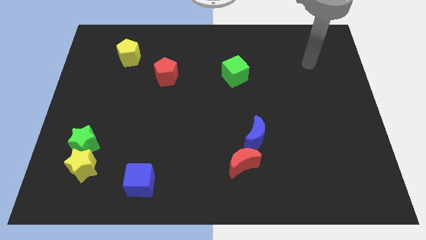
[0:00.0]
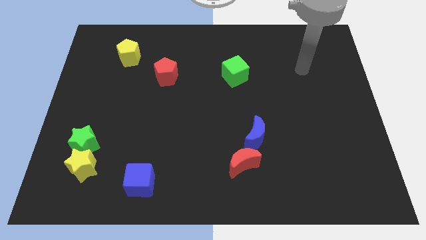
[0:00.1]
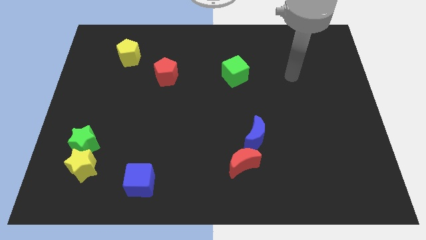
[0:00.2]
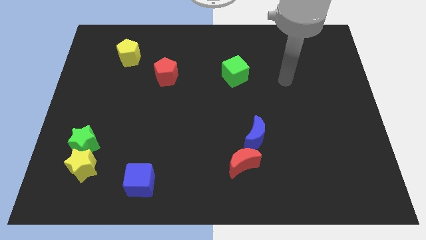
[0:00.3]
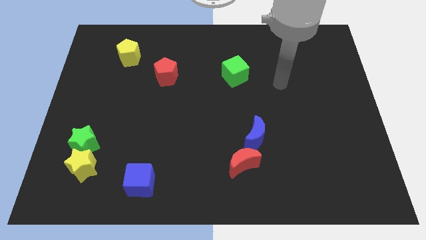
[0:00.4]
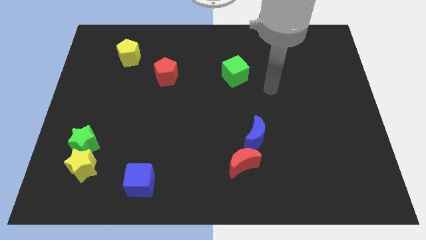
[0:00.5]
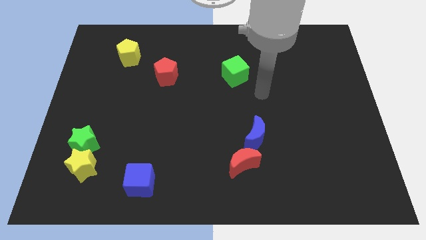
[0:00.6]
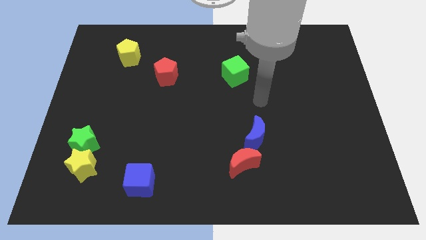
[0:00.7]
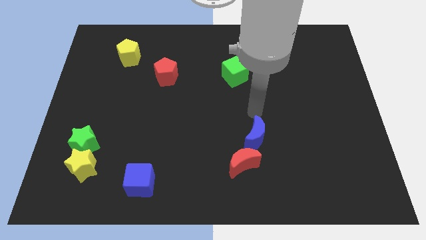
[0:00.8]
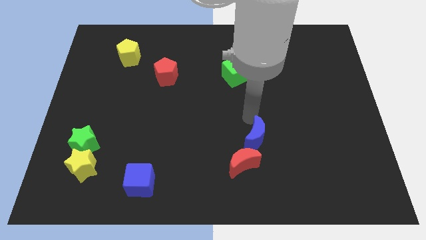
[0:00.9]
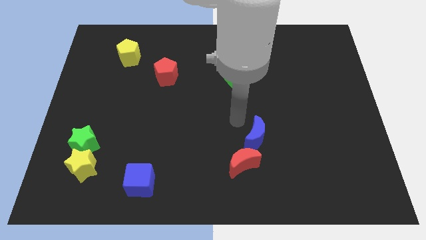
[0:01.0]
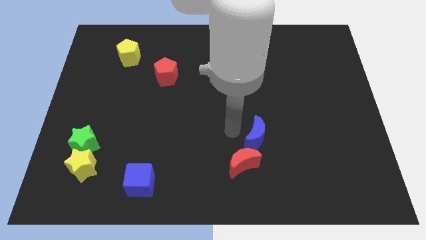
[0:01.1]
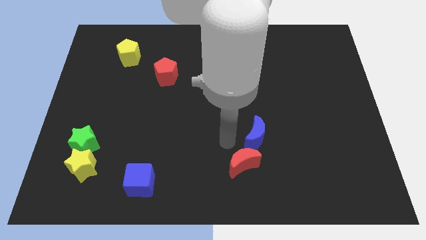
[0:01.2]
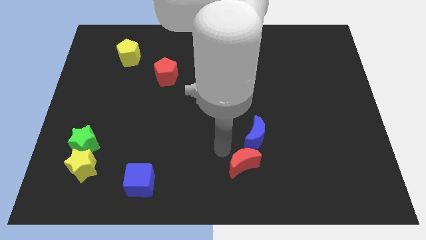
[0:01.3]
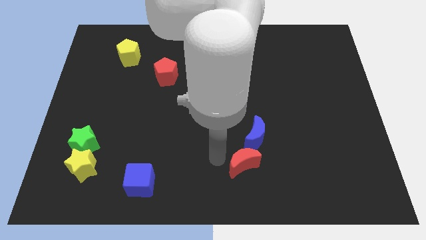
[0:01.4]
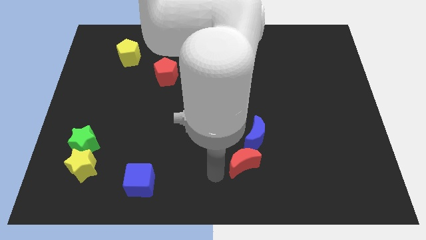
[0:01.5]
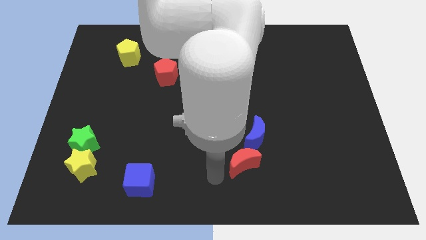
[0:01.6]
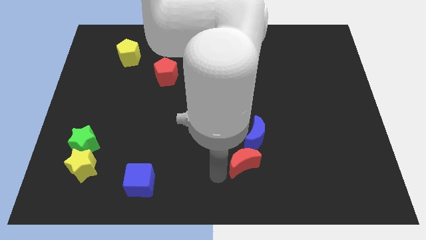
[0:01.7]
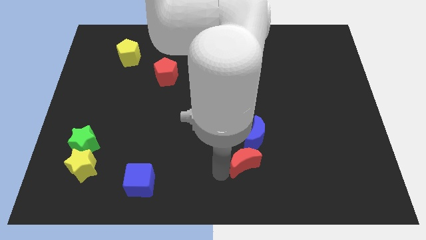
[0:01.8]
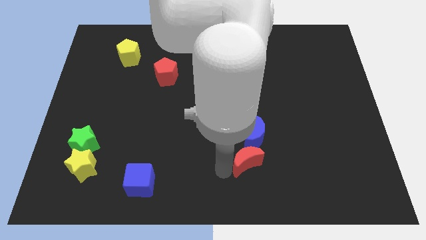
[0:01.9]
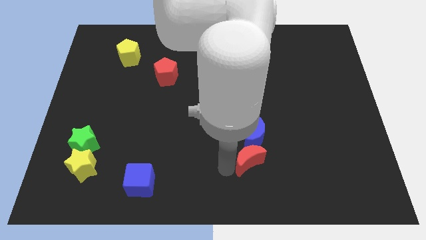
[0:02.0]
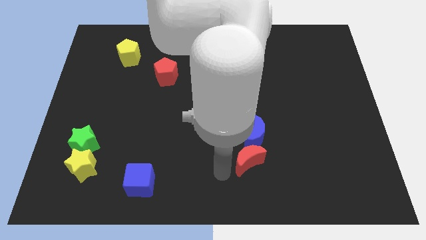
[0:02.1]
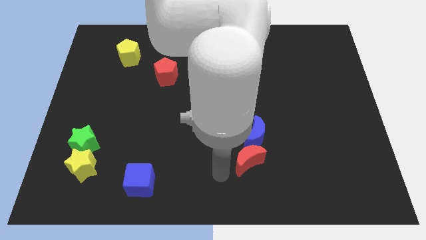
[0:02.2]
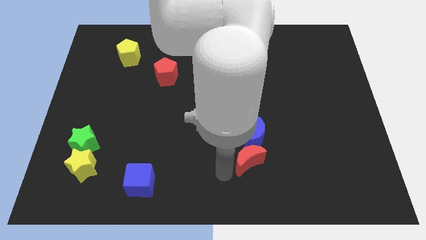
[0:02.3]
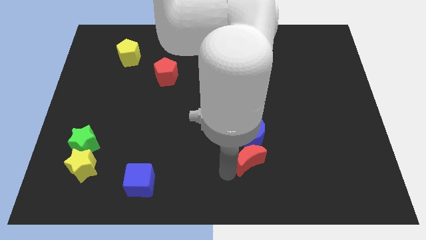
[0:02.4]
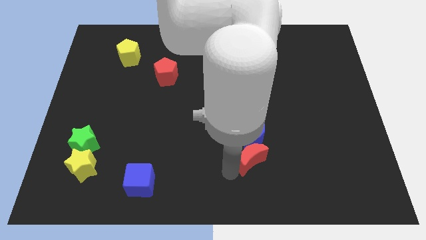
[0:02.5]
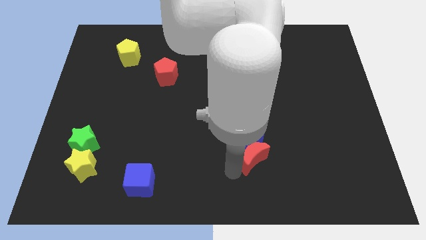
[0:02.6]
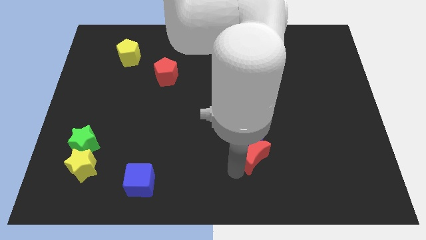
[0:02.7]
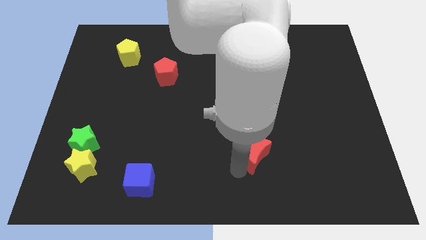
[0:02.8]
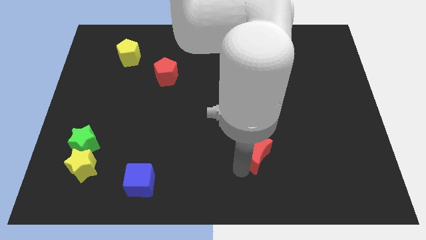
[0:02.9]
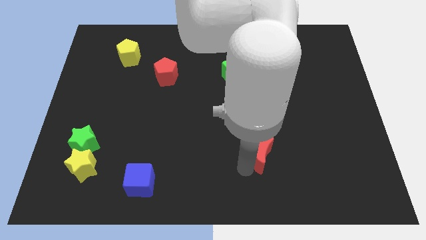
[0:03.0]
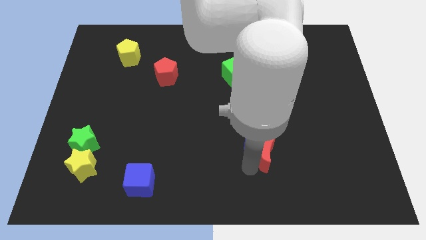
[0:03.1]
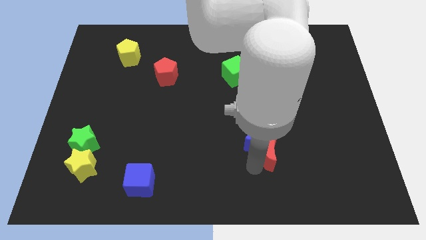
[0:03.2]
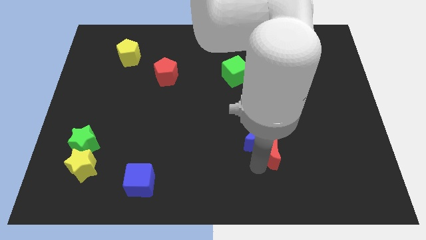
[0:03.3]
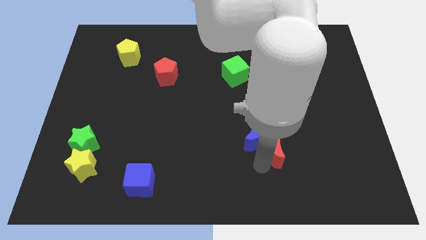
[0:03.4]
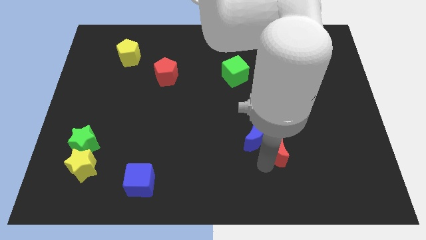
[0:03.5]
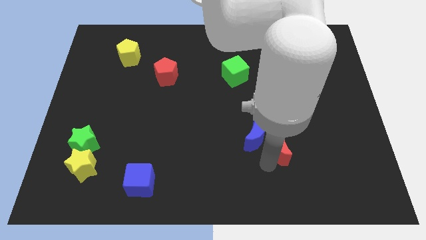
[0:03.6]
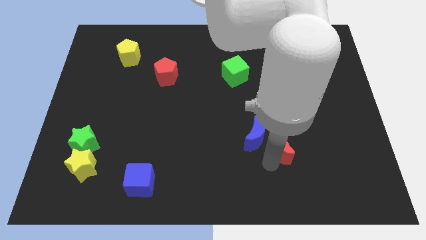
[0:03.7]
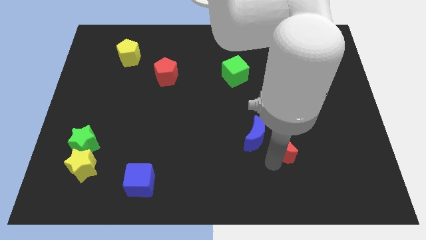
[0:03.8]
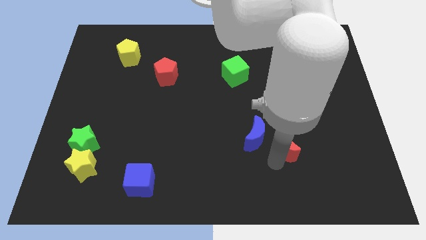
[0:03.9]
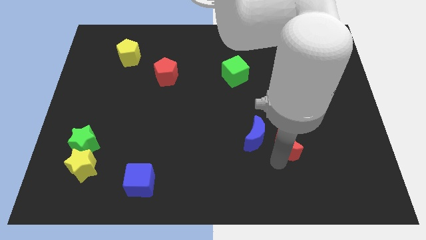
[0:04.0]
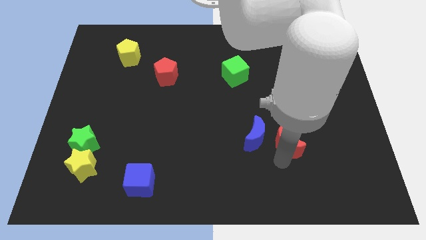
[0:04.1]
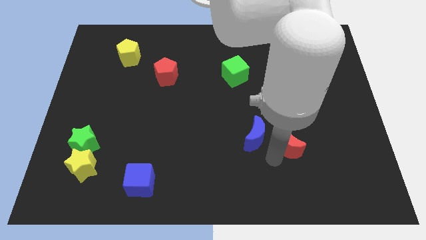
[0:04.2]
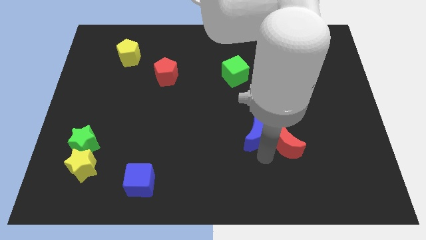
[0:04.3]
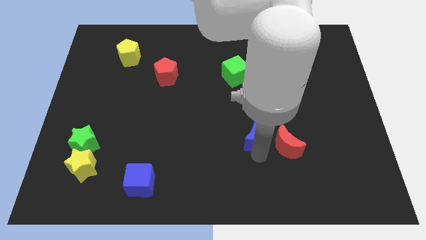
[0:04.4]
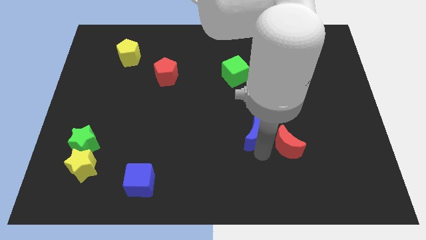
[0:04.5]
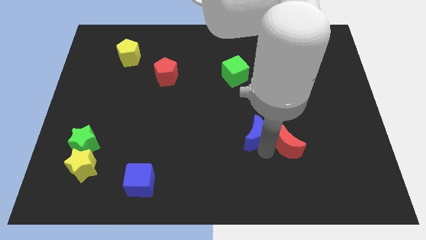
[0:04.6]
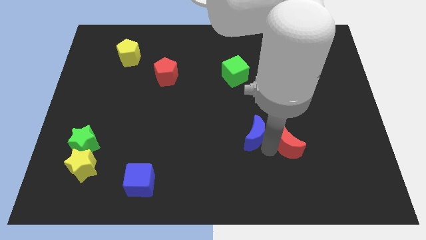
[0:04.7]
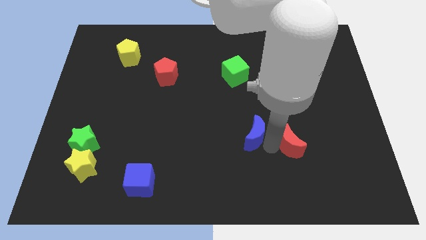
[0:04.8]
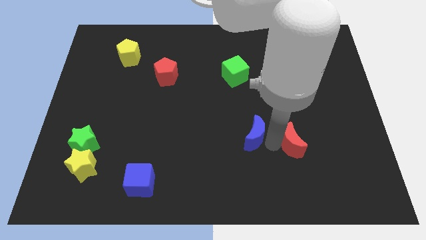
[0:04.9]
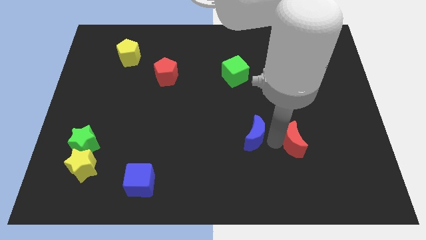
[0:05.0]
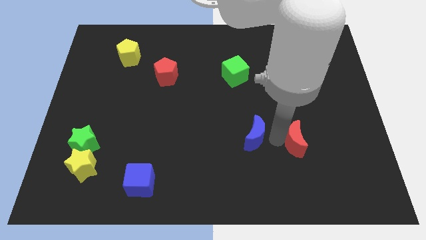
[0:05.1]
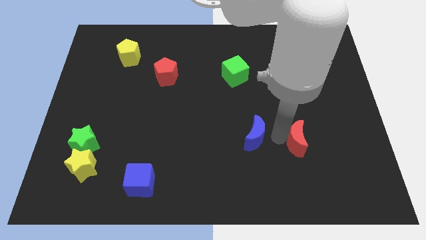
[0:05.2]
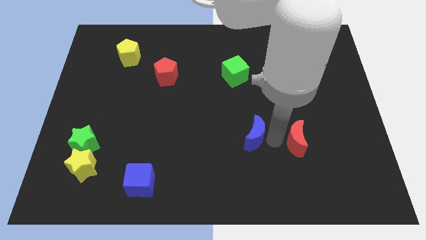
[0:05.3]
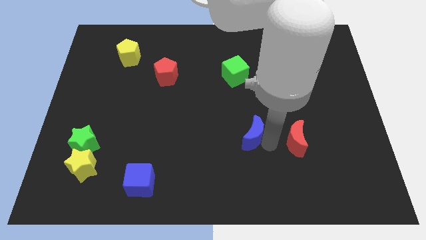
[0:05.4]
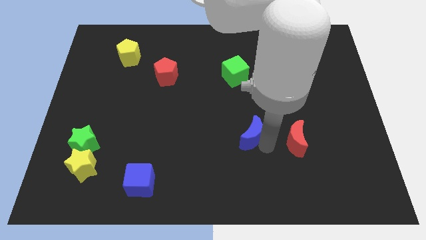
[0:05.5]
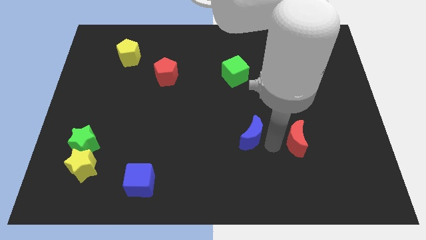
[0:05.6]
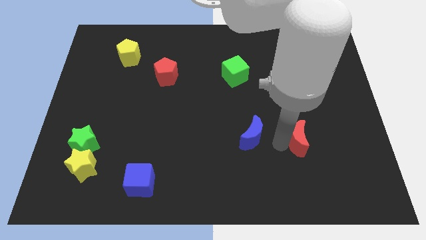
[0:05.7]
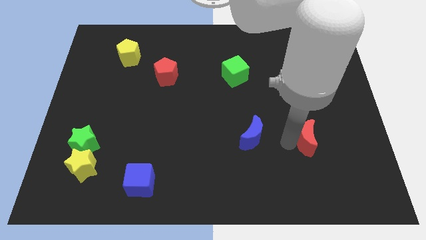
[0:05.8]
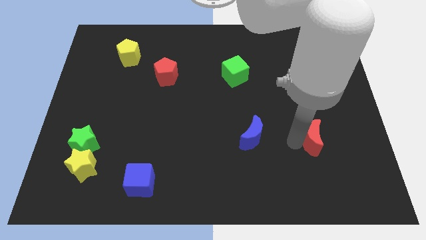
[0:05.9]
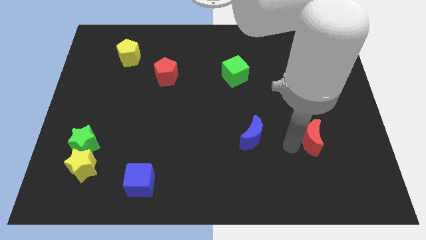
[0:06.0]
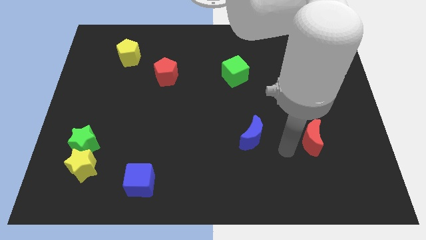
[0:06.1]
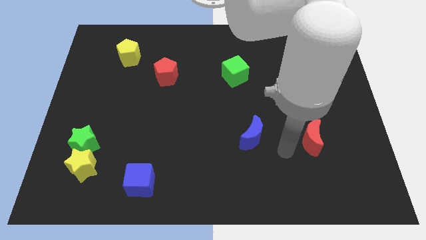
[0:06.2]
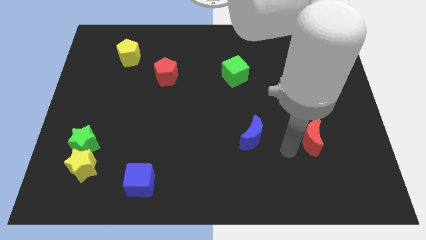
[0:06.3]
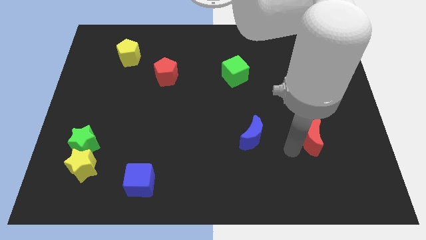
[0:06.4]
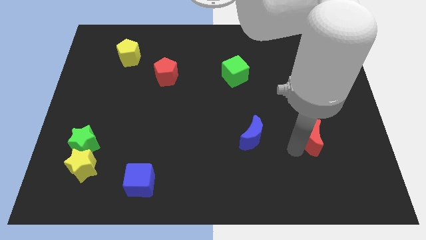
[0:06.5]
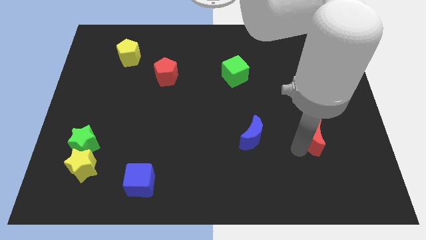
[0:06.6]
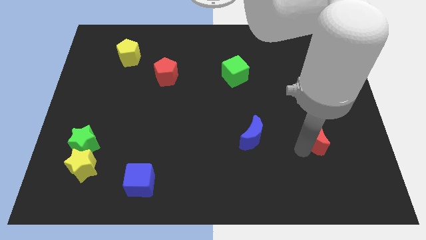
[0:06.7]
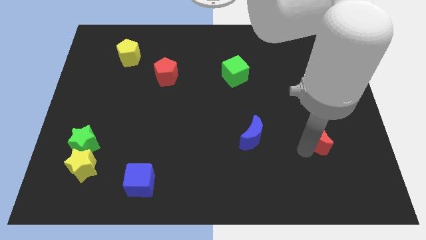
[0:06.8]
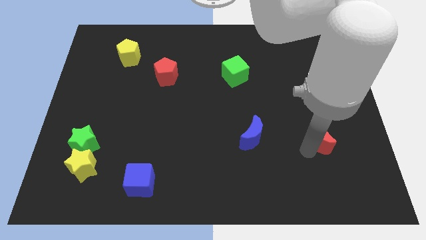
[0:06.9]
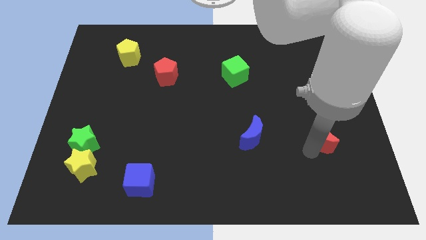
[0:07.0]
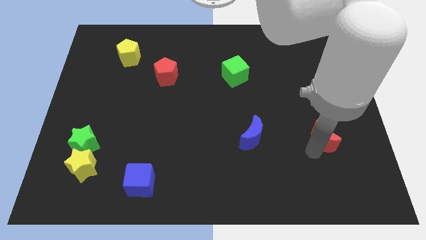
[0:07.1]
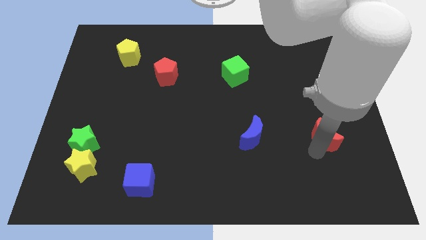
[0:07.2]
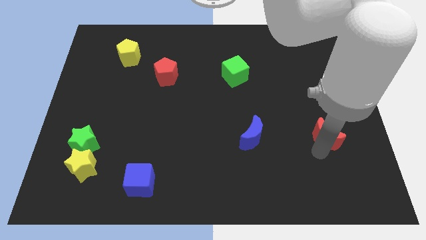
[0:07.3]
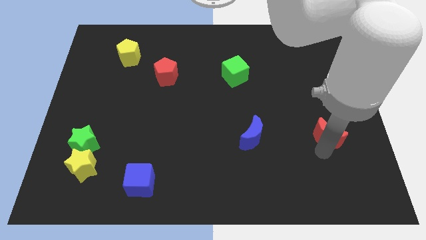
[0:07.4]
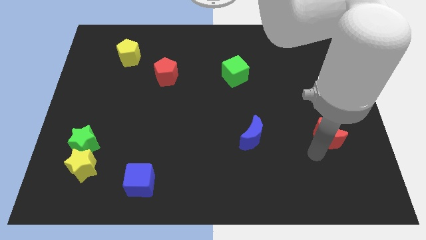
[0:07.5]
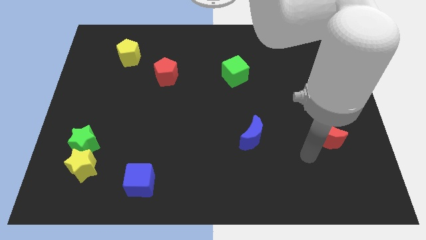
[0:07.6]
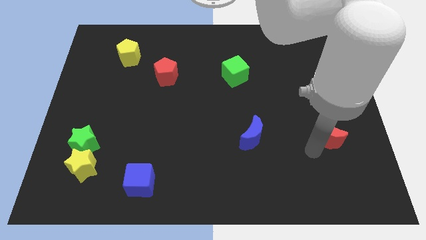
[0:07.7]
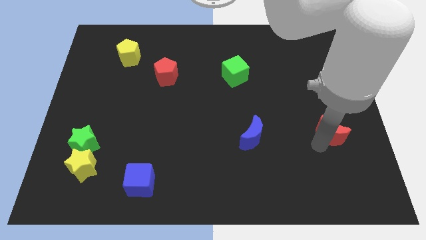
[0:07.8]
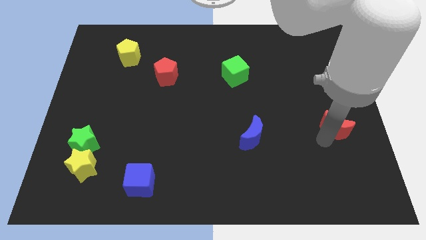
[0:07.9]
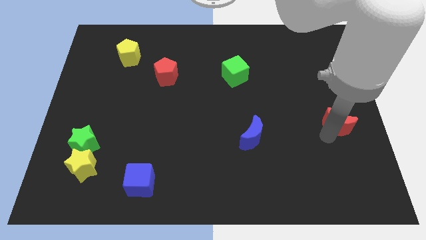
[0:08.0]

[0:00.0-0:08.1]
slide the red moon to the right side of the board
